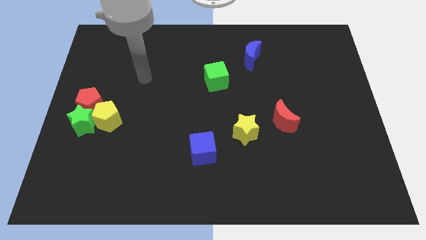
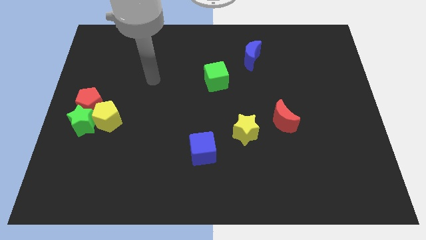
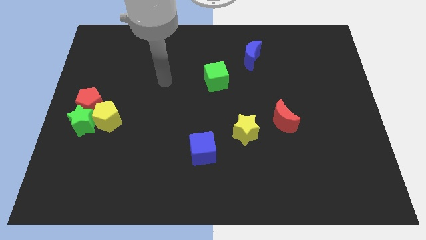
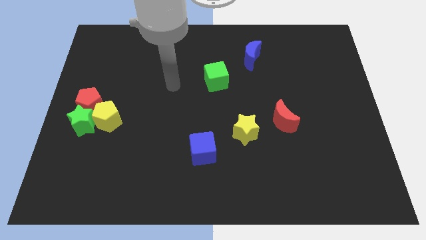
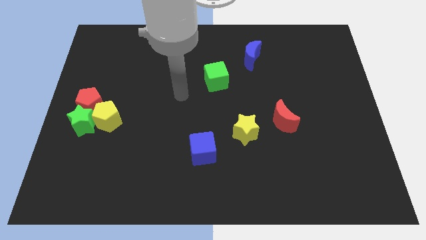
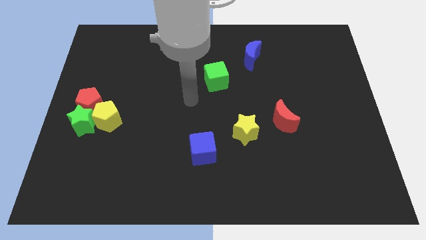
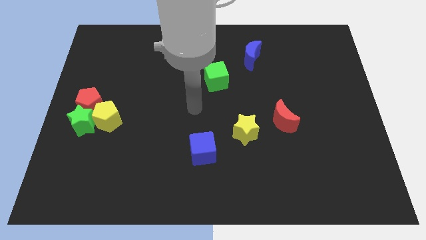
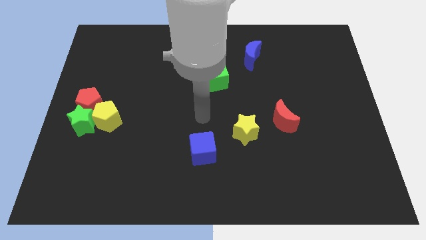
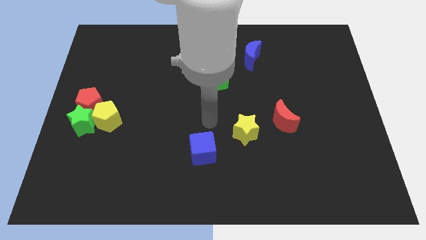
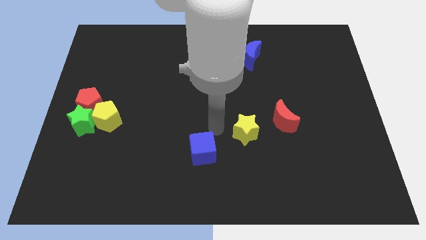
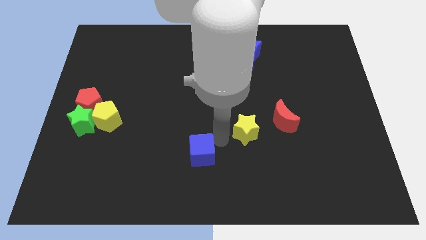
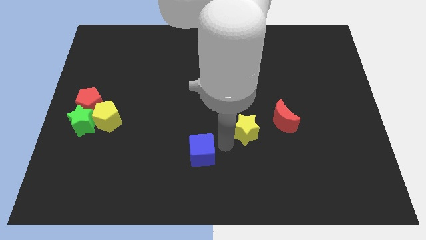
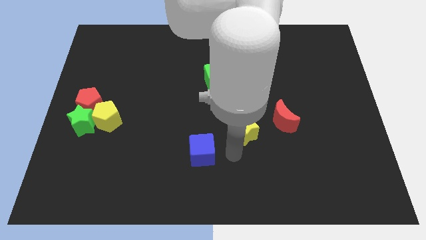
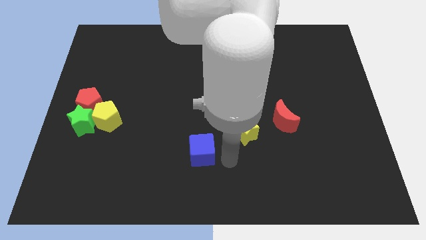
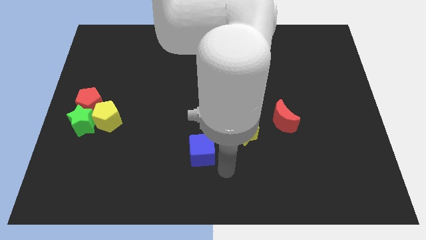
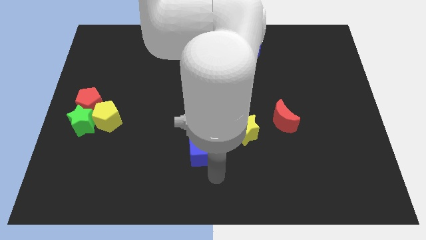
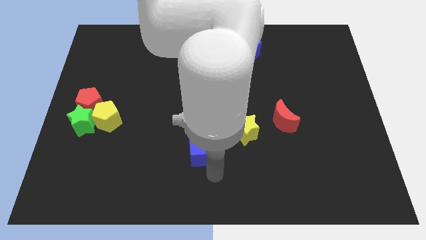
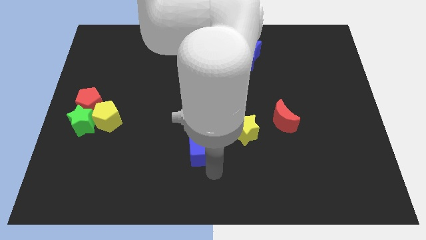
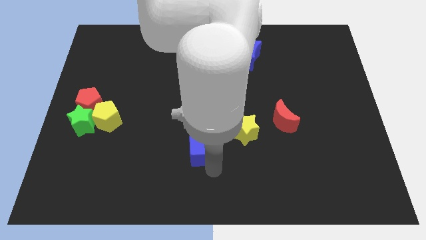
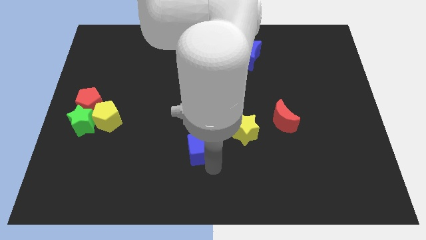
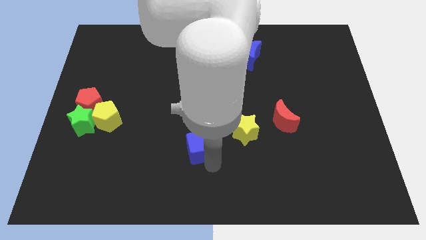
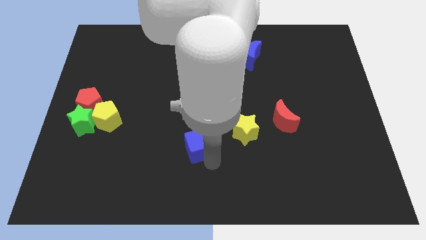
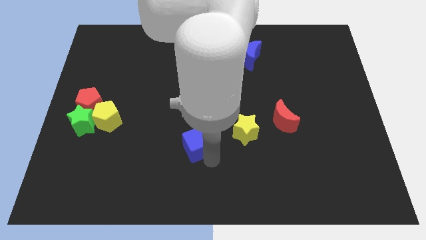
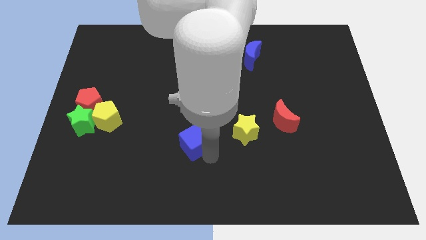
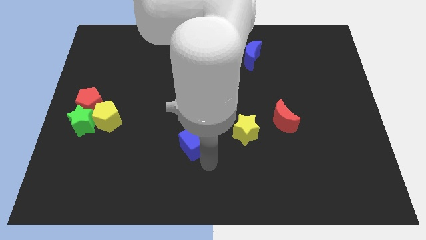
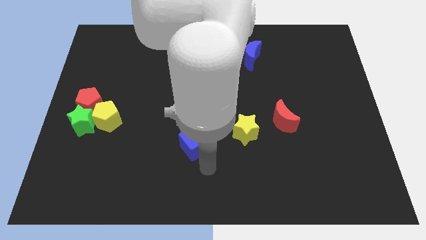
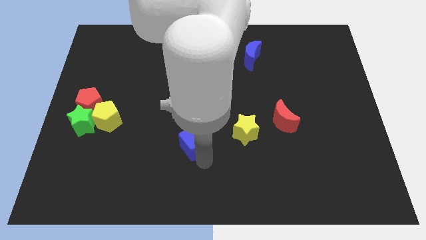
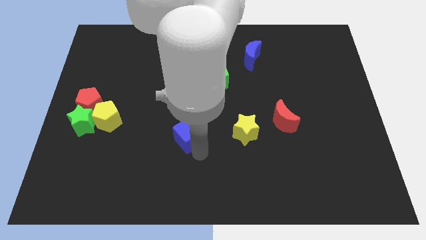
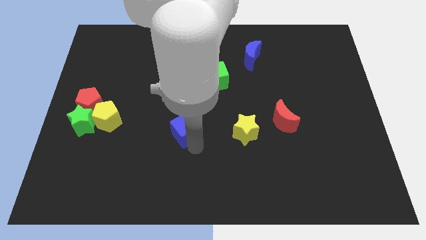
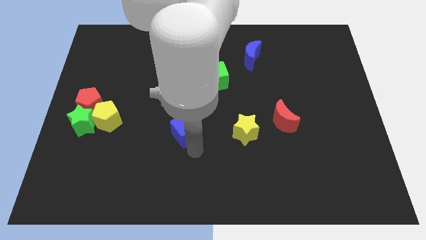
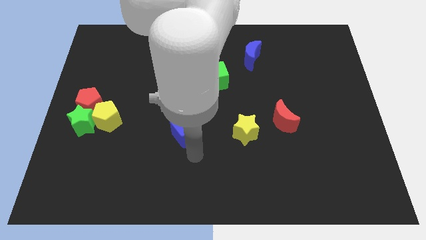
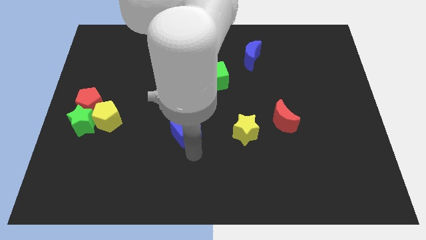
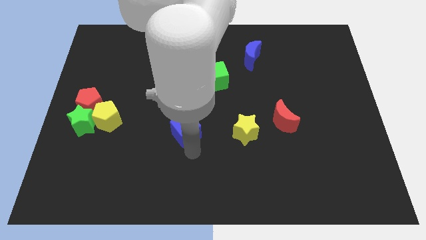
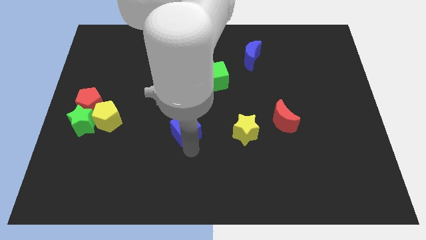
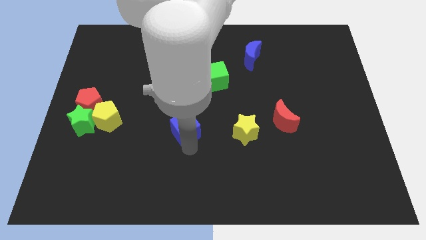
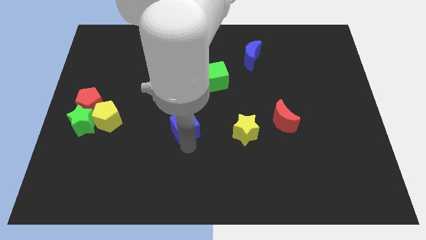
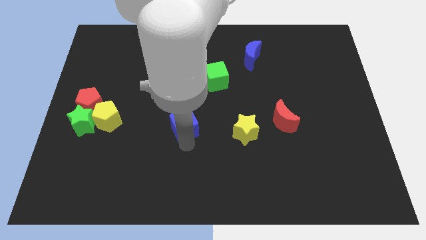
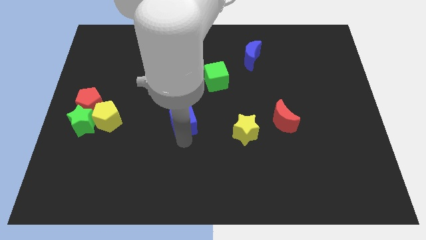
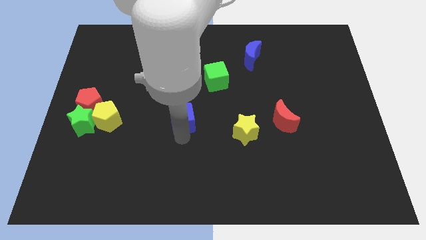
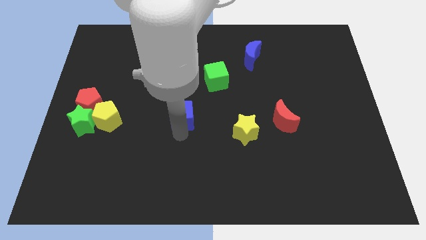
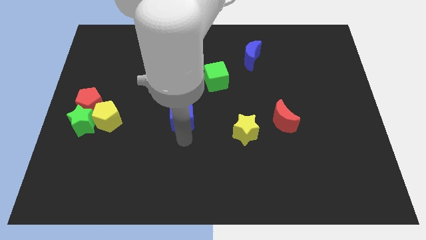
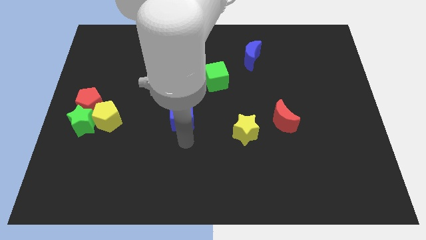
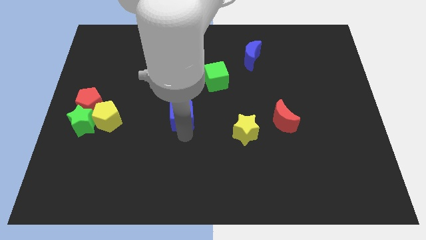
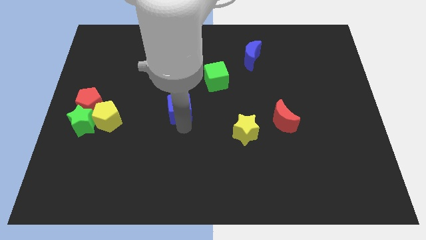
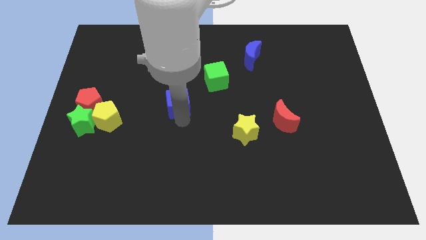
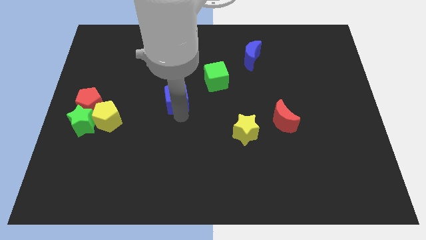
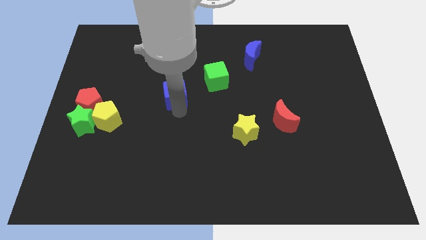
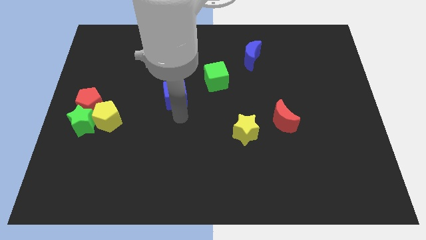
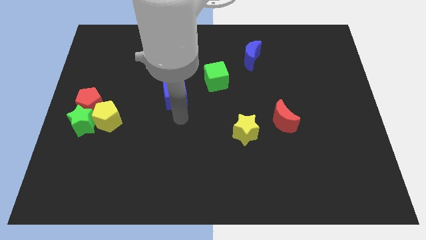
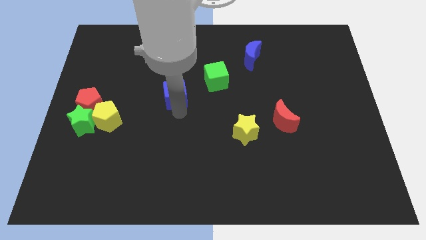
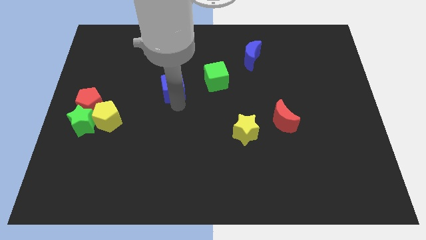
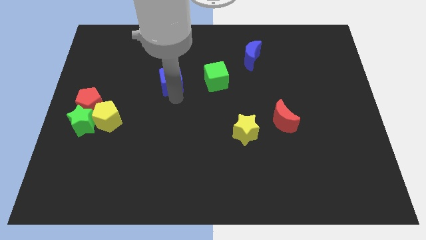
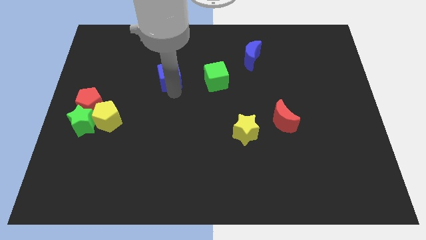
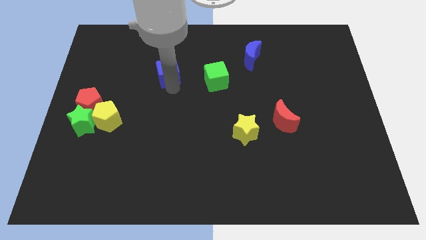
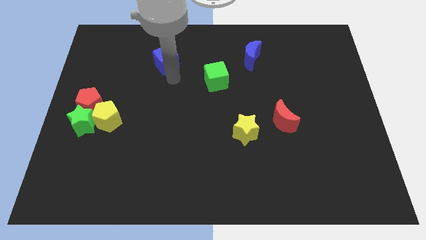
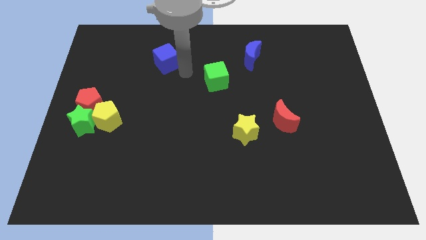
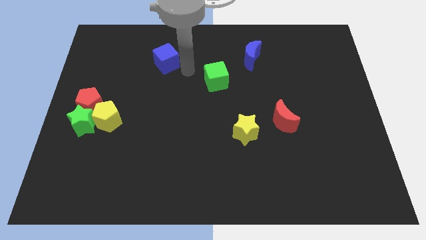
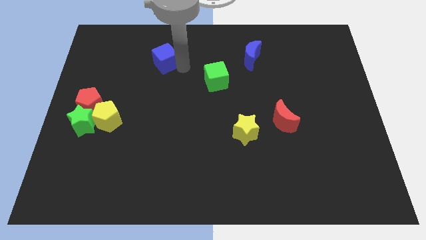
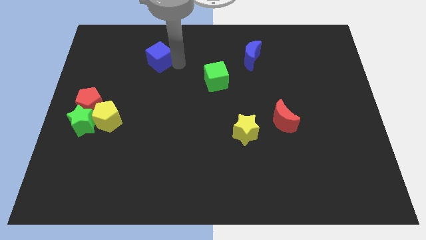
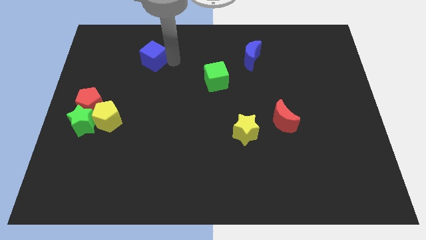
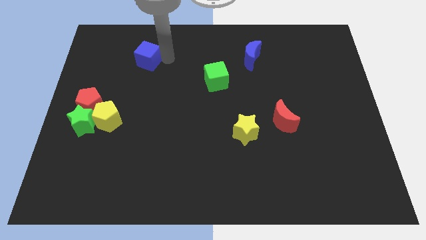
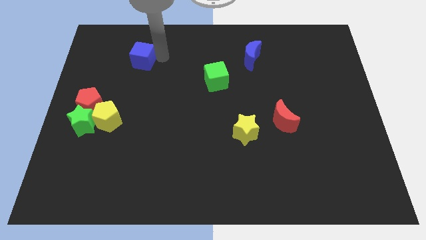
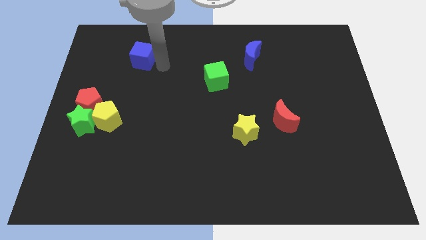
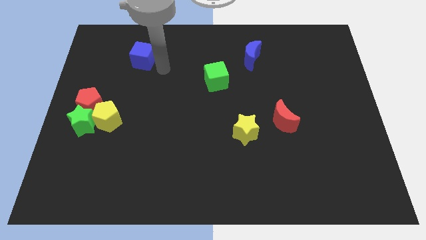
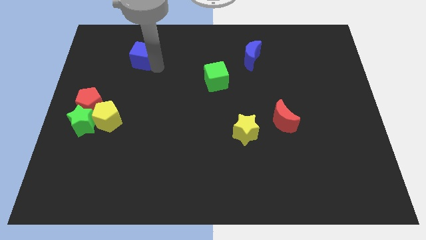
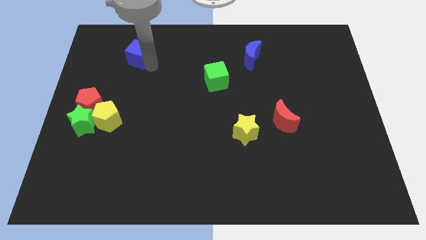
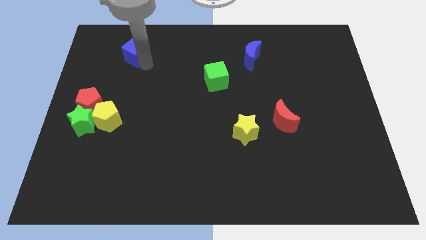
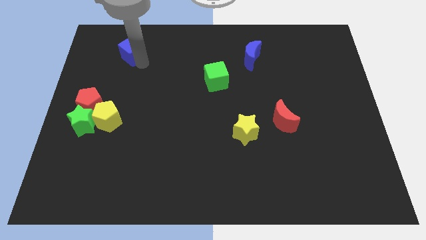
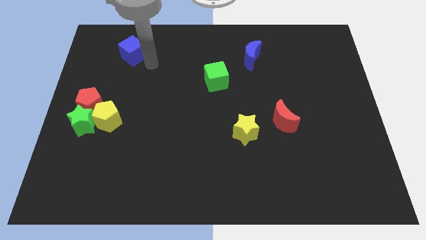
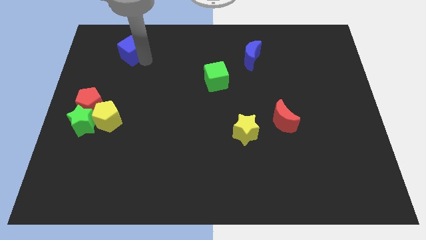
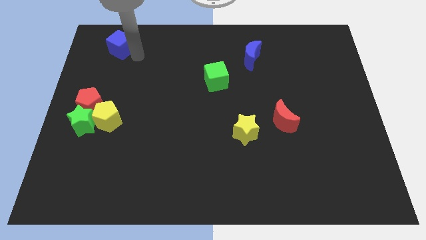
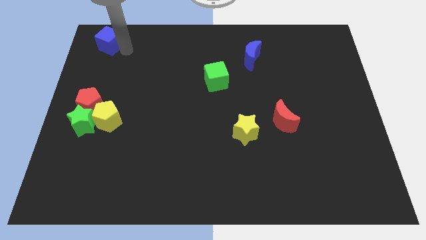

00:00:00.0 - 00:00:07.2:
move the blue cube to the top left corner

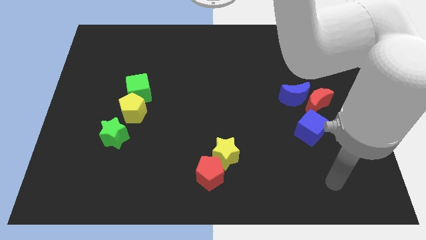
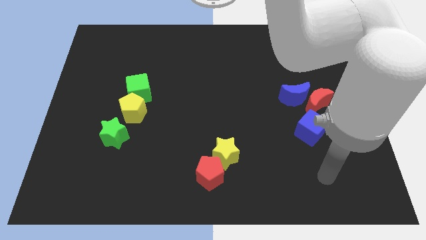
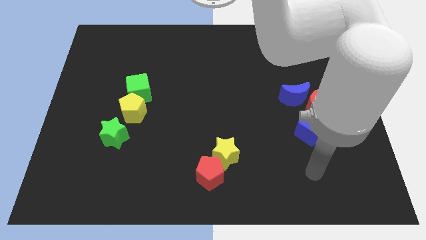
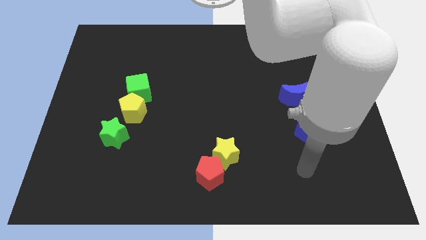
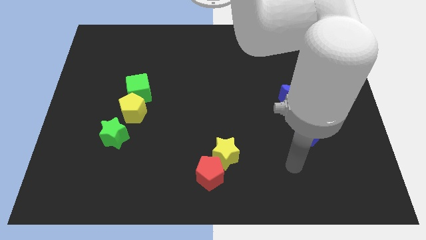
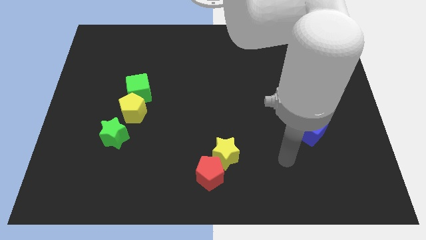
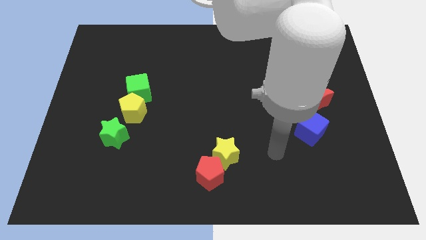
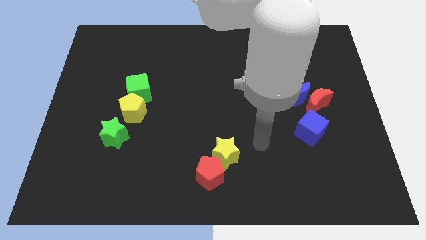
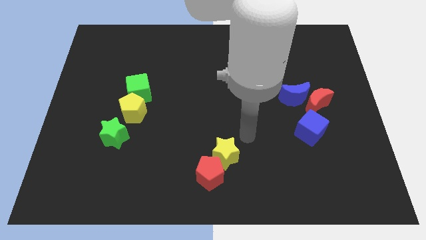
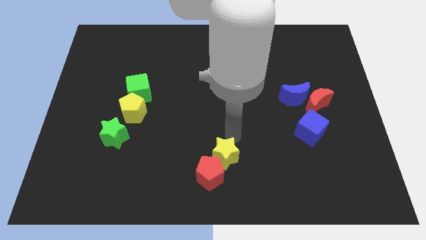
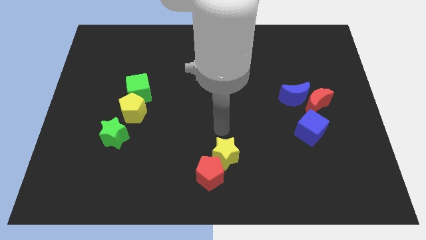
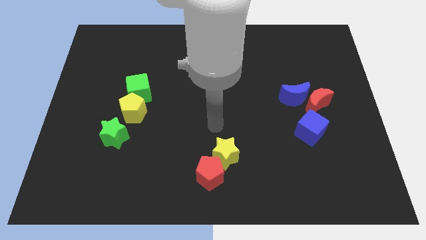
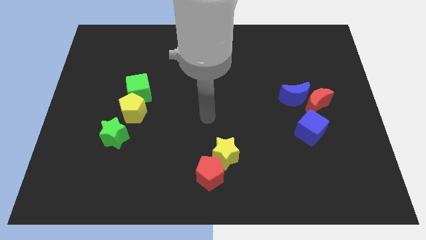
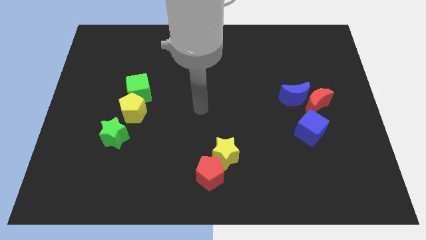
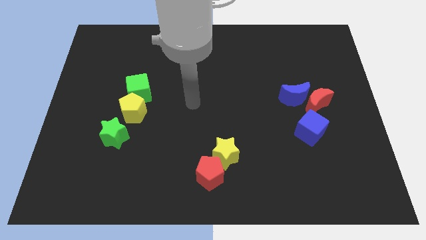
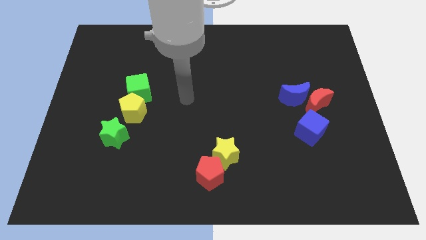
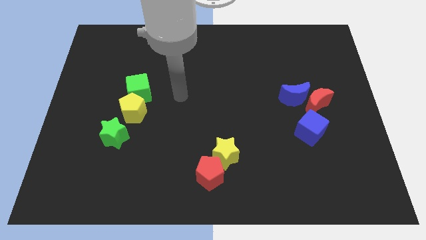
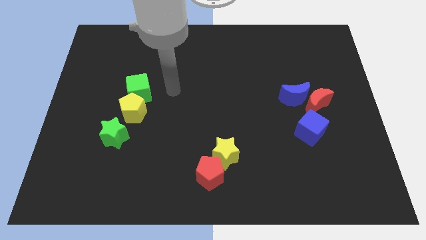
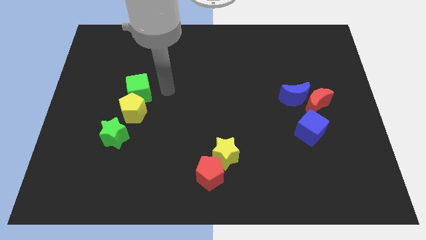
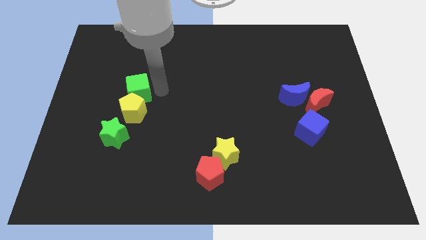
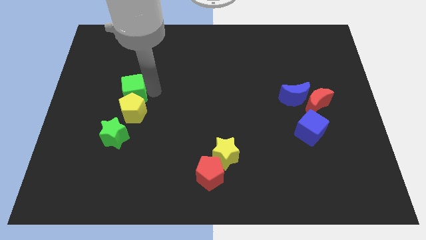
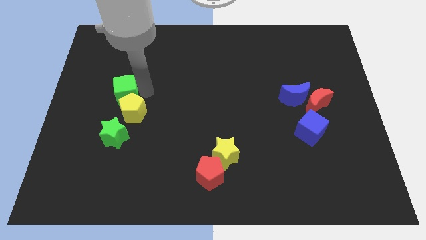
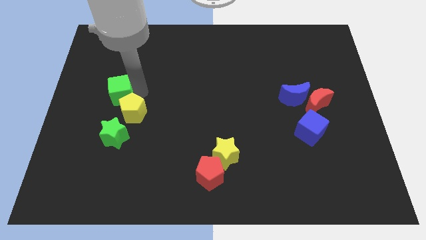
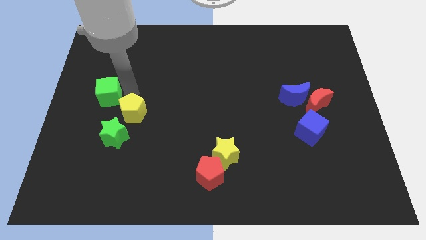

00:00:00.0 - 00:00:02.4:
move the green cube to the left side
